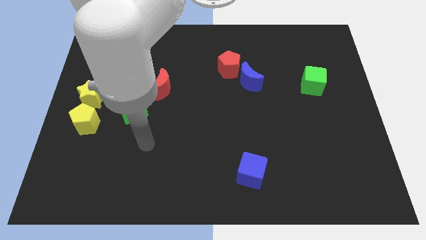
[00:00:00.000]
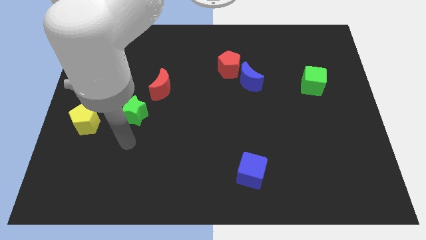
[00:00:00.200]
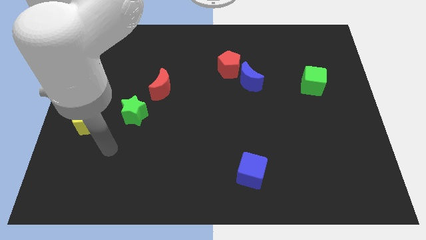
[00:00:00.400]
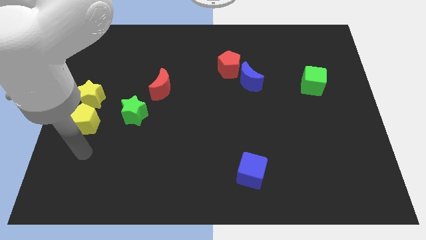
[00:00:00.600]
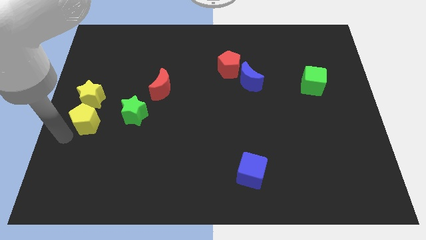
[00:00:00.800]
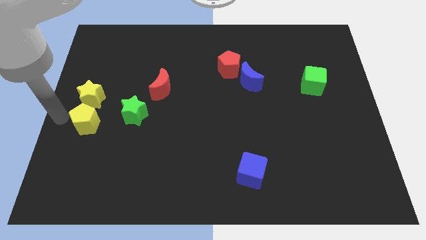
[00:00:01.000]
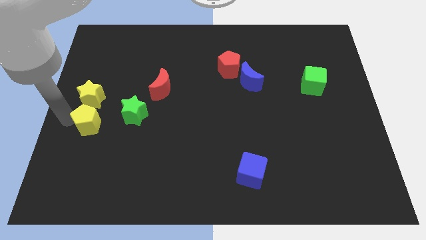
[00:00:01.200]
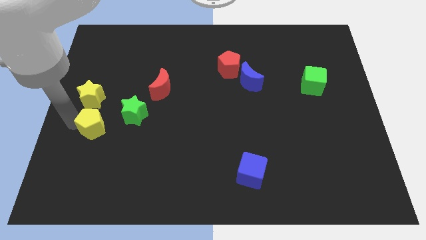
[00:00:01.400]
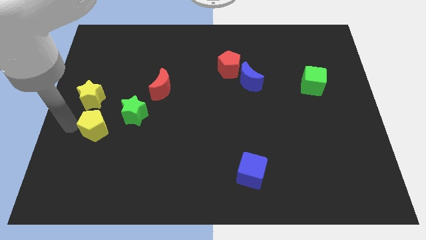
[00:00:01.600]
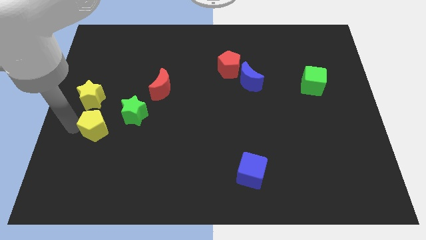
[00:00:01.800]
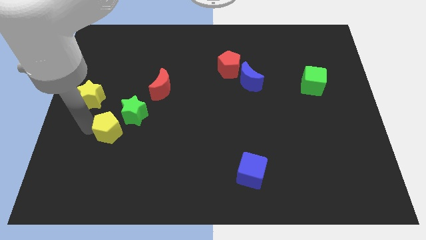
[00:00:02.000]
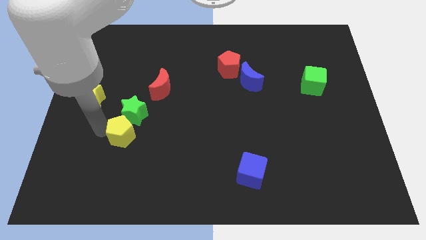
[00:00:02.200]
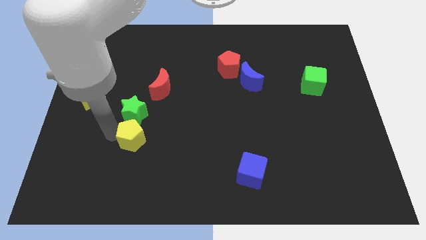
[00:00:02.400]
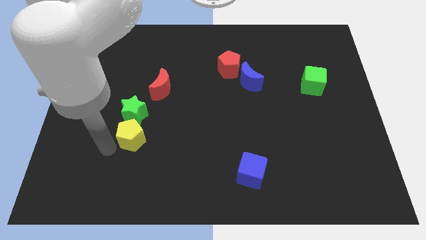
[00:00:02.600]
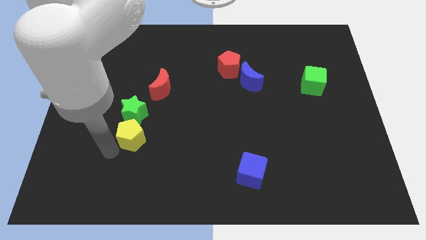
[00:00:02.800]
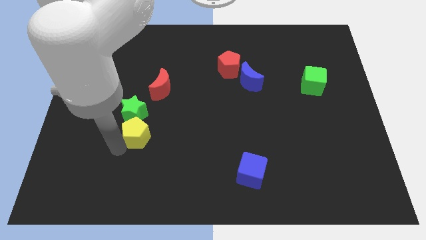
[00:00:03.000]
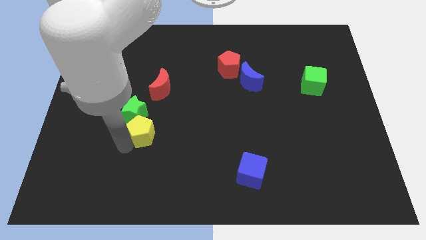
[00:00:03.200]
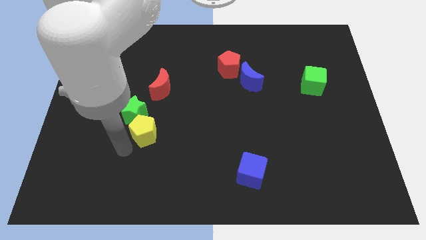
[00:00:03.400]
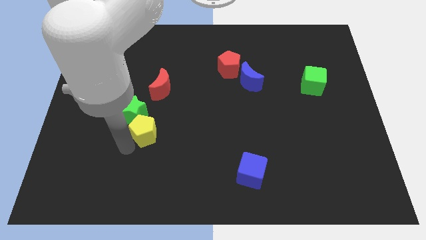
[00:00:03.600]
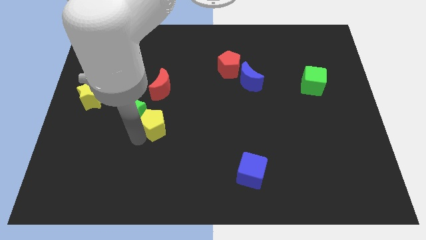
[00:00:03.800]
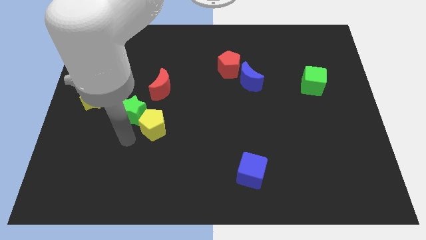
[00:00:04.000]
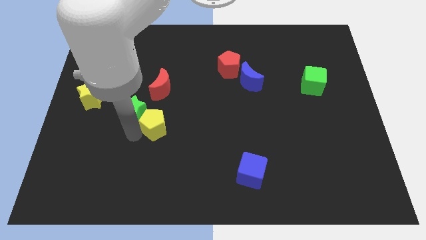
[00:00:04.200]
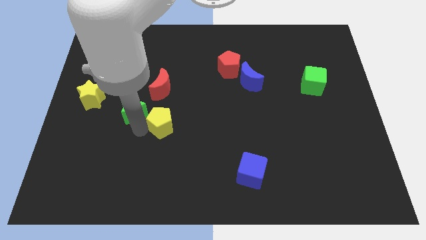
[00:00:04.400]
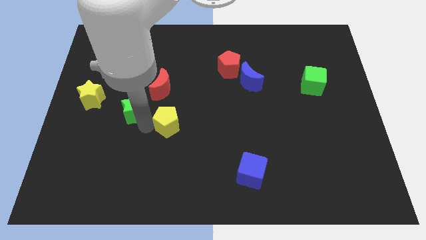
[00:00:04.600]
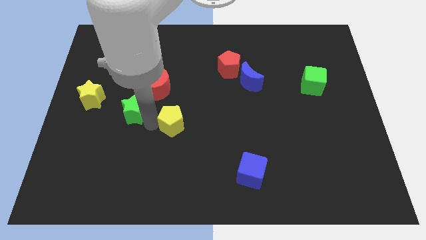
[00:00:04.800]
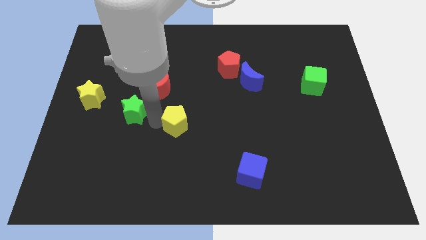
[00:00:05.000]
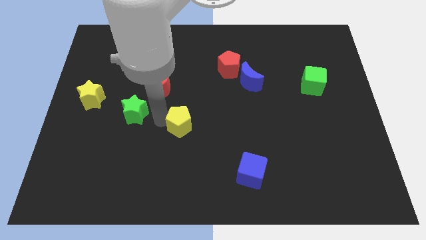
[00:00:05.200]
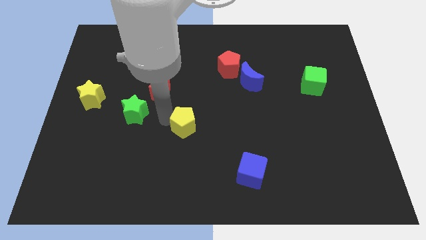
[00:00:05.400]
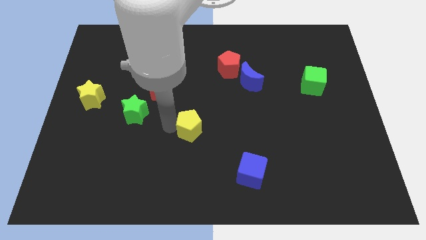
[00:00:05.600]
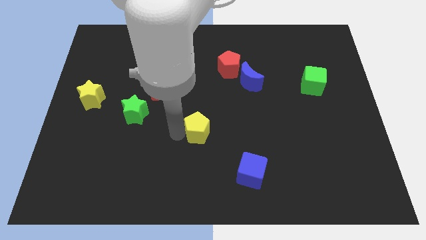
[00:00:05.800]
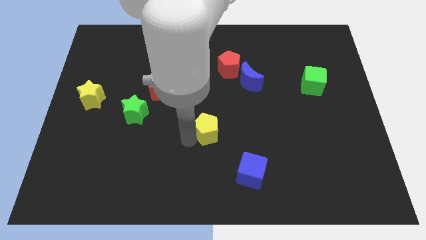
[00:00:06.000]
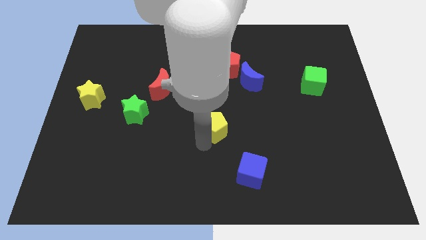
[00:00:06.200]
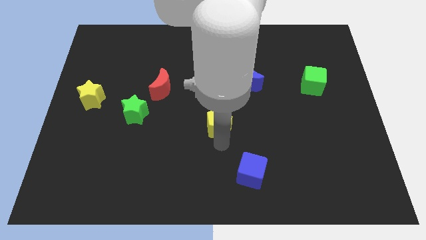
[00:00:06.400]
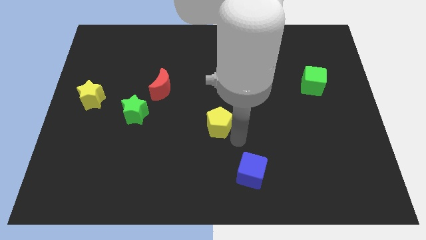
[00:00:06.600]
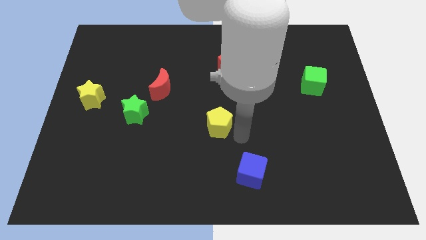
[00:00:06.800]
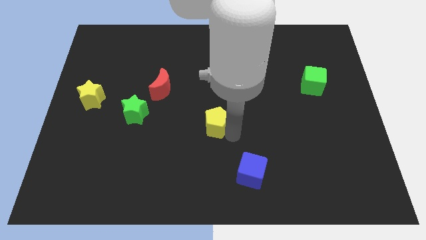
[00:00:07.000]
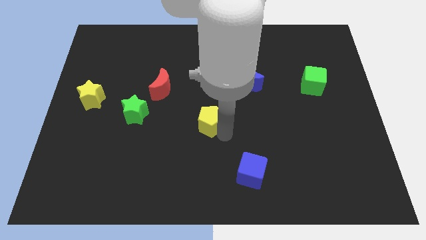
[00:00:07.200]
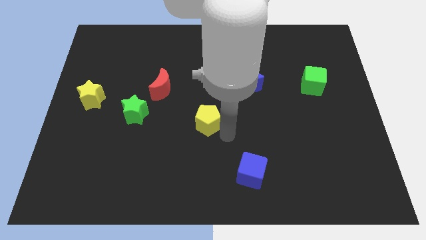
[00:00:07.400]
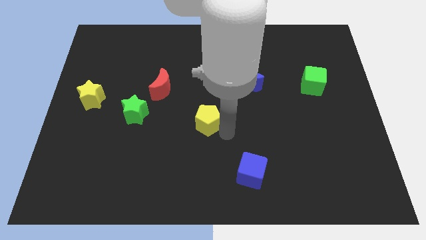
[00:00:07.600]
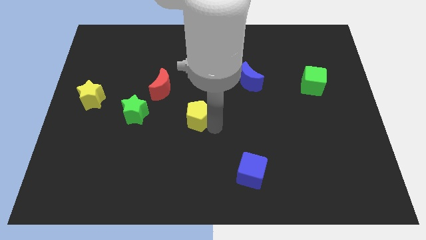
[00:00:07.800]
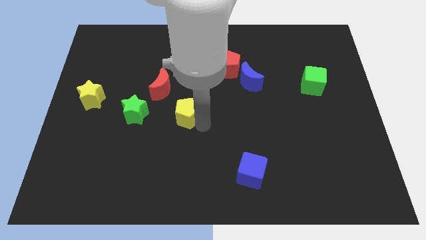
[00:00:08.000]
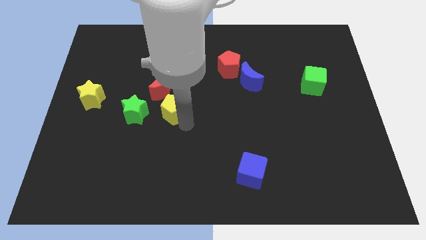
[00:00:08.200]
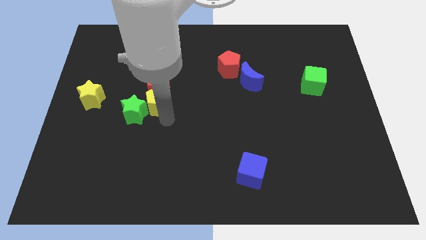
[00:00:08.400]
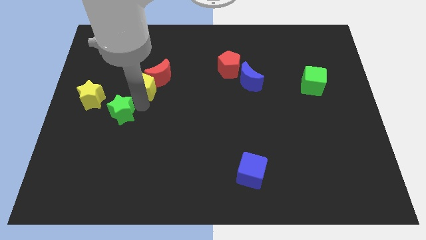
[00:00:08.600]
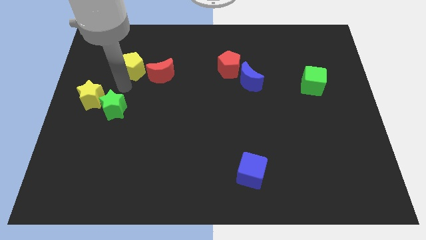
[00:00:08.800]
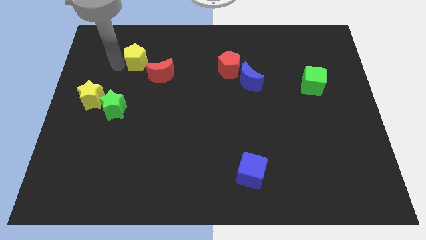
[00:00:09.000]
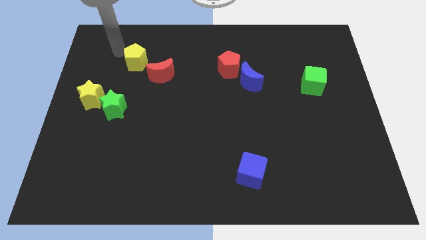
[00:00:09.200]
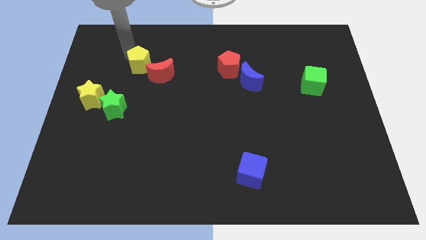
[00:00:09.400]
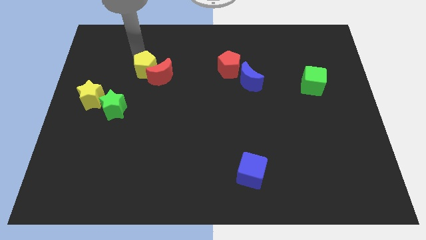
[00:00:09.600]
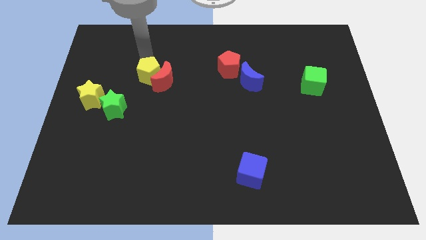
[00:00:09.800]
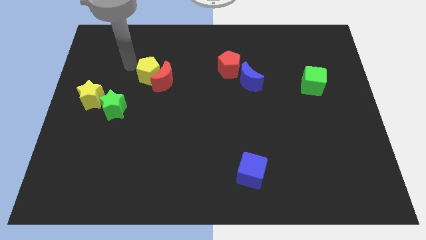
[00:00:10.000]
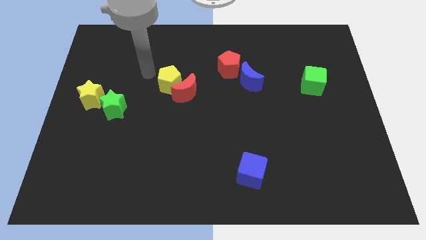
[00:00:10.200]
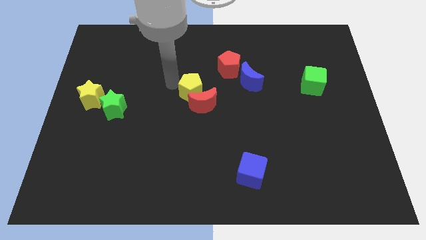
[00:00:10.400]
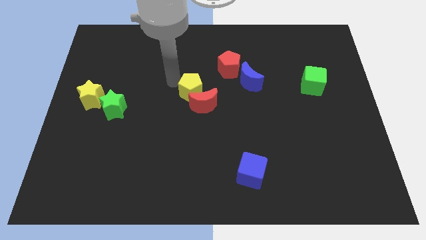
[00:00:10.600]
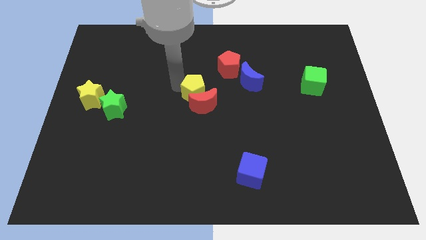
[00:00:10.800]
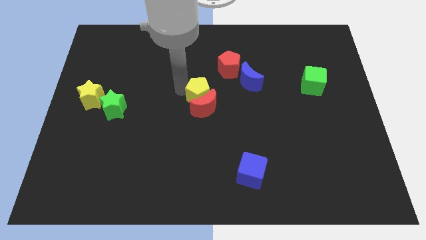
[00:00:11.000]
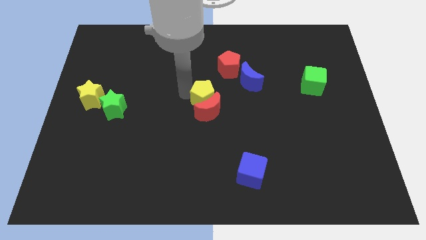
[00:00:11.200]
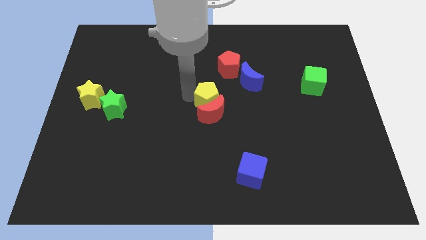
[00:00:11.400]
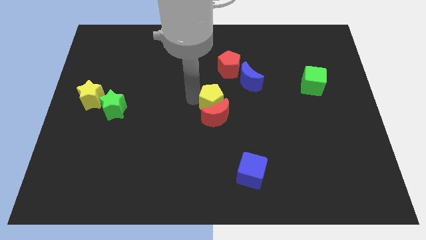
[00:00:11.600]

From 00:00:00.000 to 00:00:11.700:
move the yellow pentagon to the bottom of the red pentagon

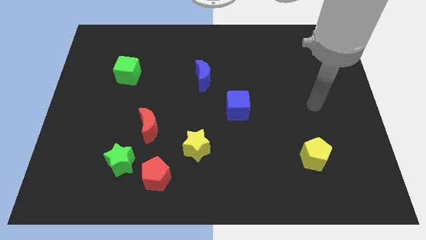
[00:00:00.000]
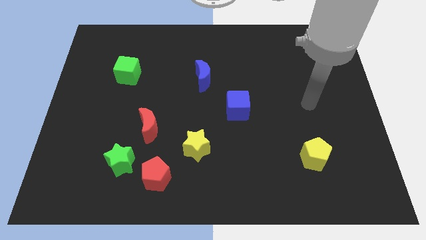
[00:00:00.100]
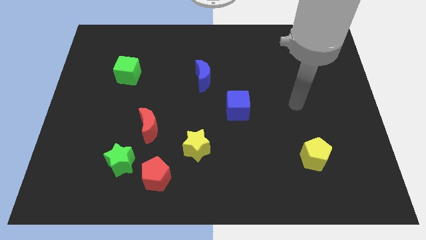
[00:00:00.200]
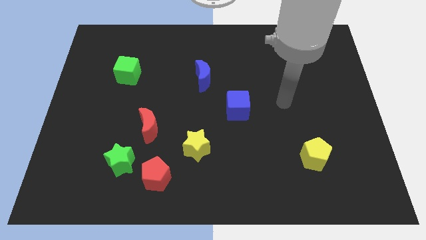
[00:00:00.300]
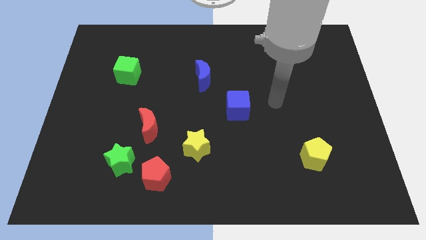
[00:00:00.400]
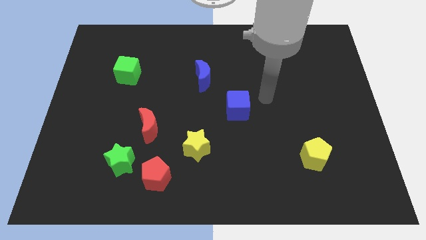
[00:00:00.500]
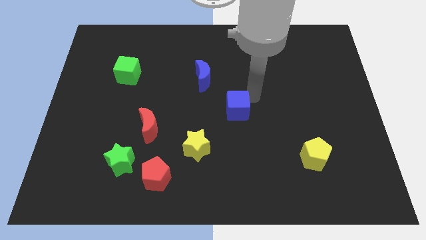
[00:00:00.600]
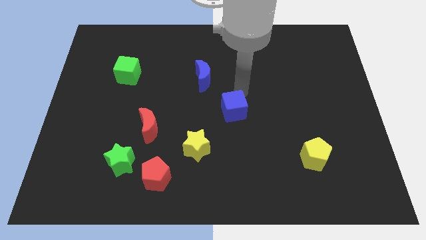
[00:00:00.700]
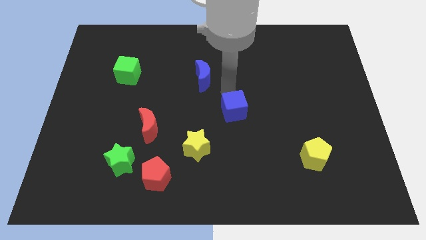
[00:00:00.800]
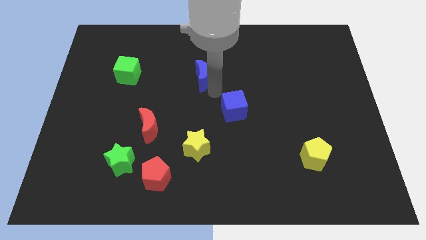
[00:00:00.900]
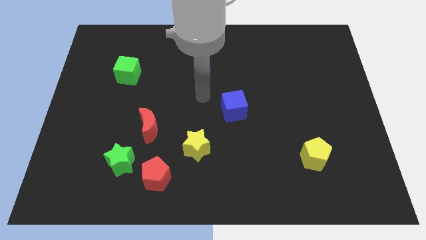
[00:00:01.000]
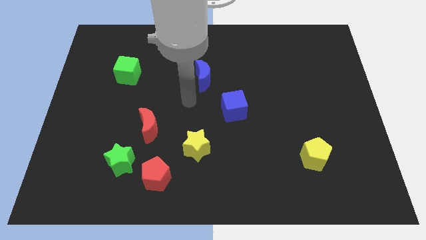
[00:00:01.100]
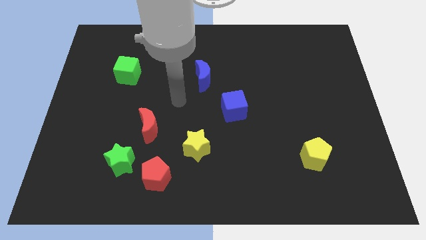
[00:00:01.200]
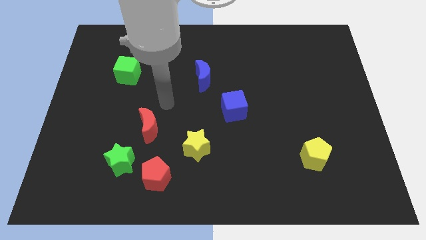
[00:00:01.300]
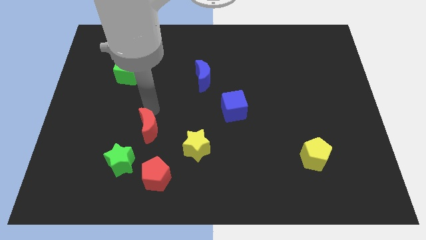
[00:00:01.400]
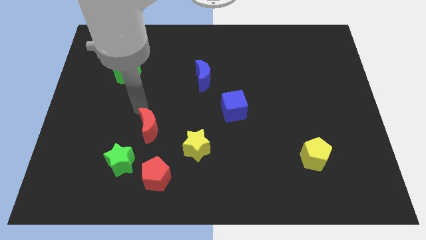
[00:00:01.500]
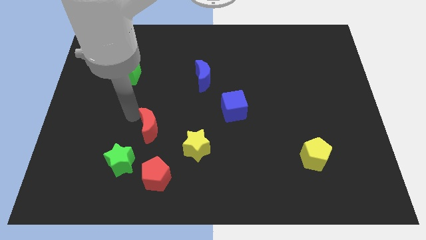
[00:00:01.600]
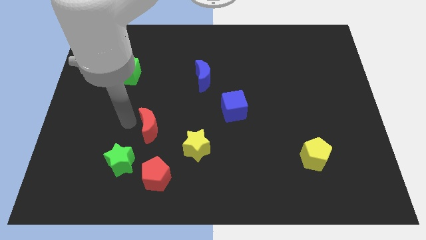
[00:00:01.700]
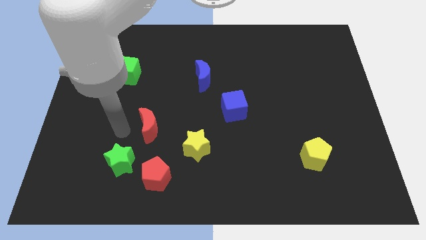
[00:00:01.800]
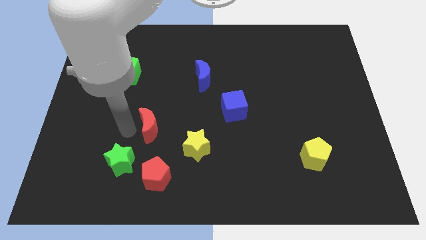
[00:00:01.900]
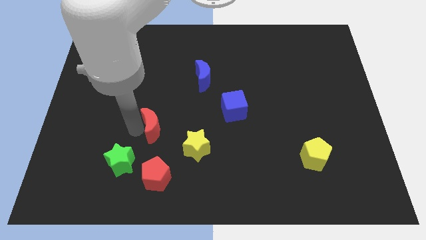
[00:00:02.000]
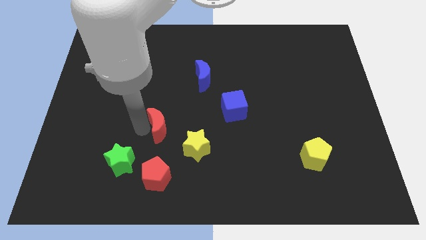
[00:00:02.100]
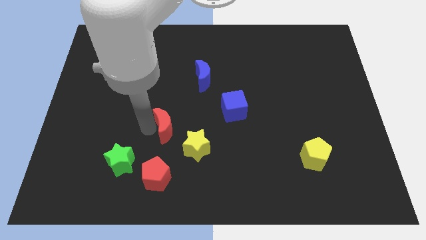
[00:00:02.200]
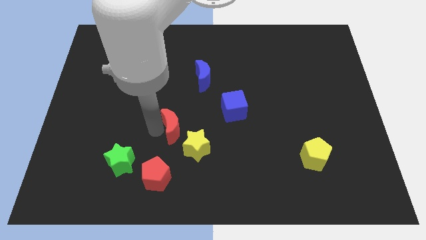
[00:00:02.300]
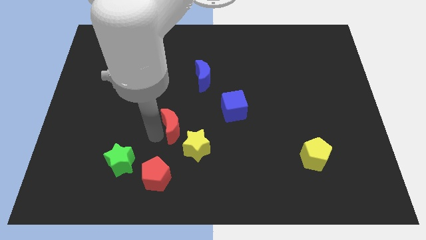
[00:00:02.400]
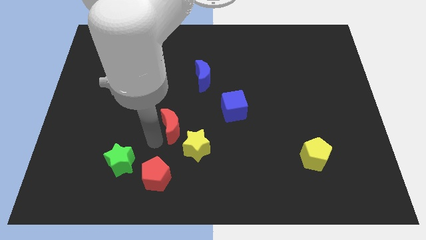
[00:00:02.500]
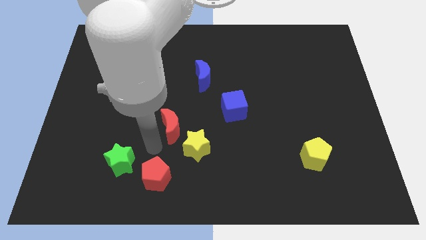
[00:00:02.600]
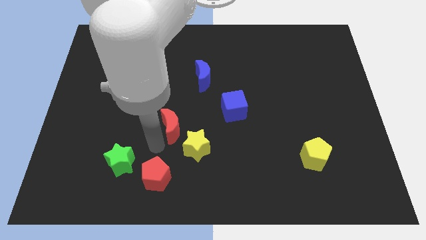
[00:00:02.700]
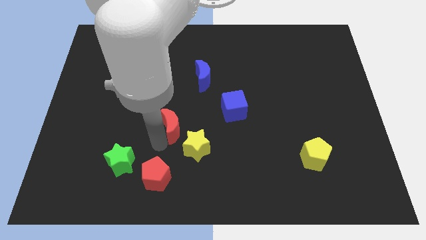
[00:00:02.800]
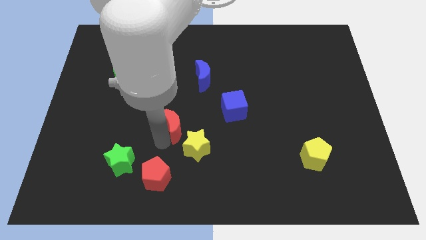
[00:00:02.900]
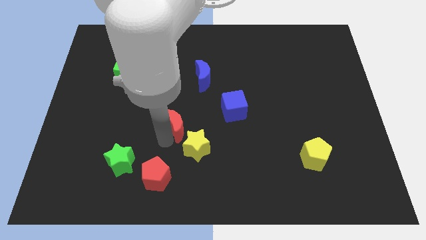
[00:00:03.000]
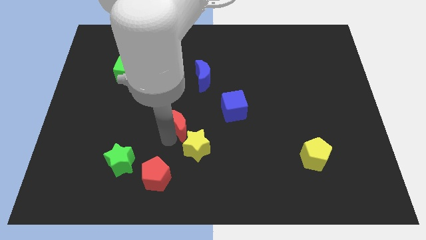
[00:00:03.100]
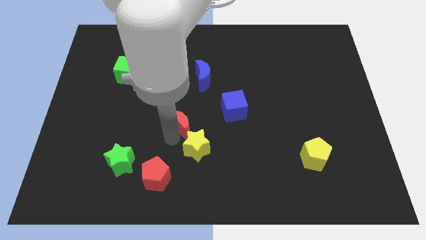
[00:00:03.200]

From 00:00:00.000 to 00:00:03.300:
push the red moon to the left of the blue cube
